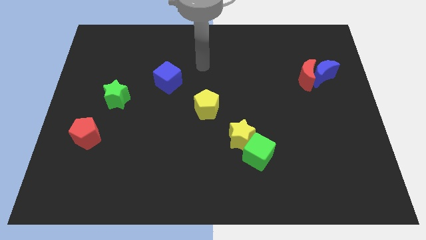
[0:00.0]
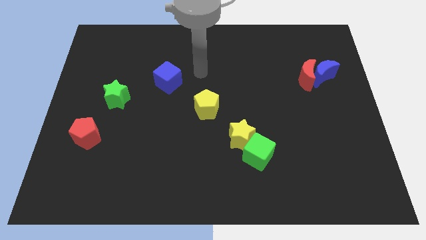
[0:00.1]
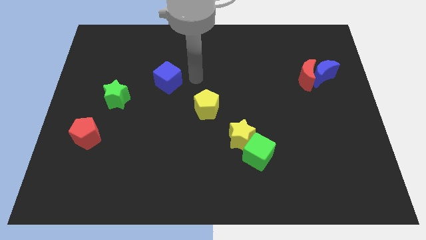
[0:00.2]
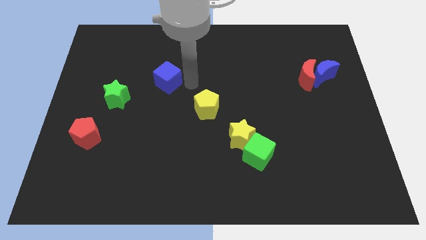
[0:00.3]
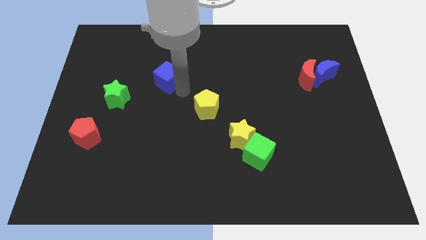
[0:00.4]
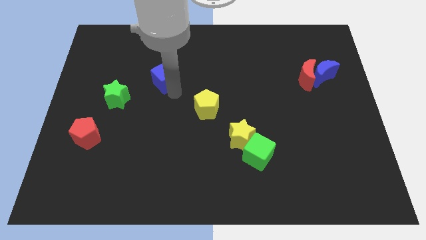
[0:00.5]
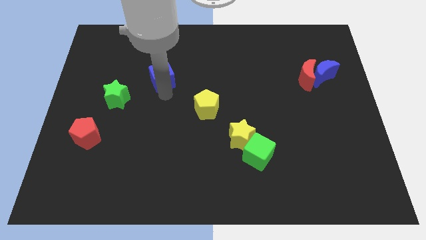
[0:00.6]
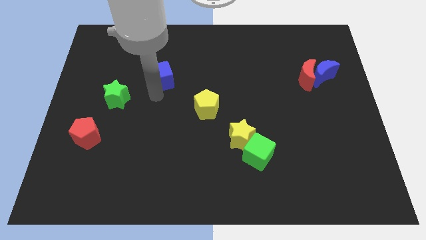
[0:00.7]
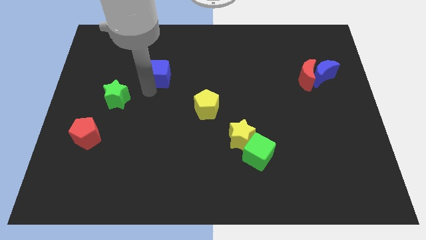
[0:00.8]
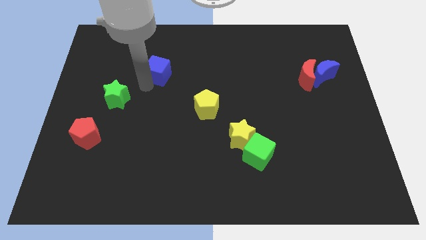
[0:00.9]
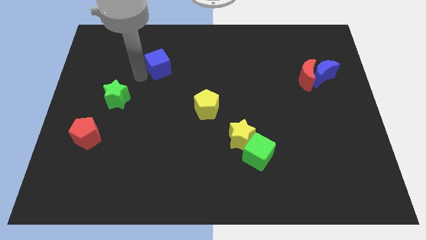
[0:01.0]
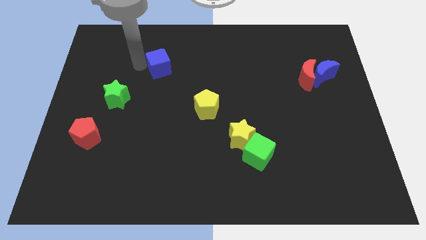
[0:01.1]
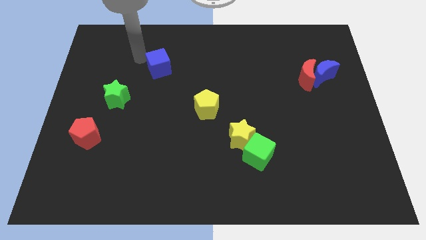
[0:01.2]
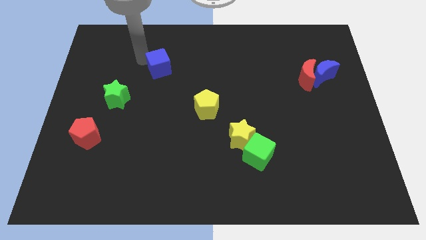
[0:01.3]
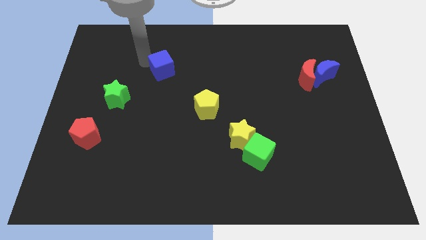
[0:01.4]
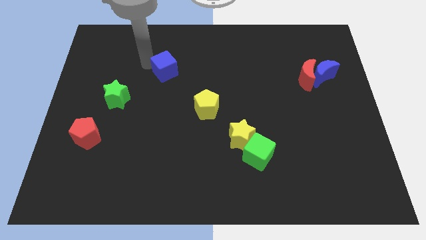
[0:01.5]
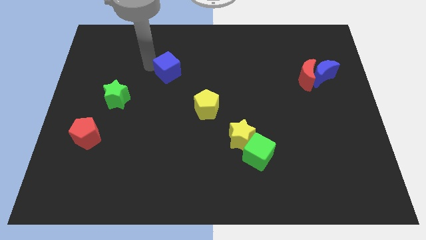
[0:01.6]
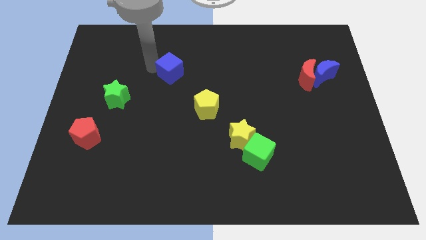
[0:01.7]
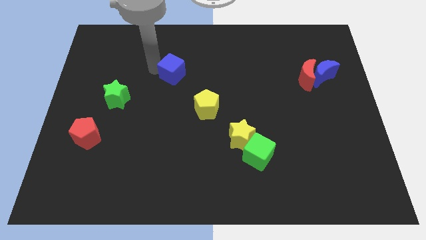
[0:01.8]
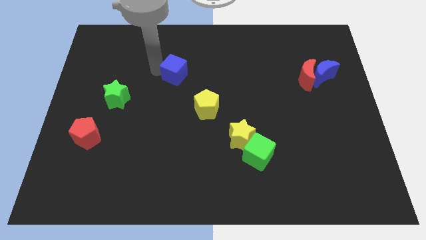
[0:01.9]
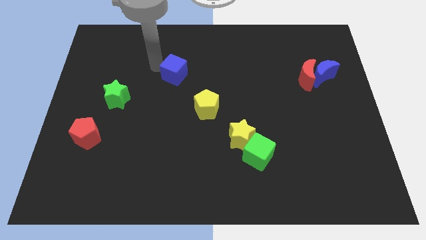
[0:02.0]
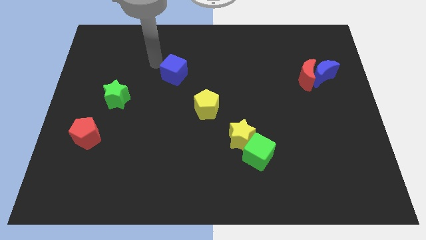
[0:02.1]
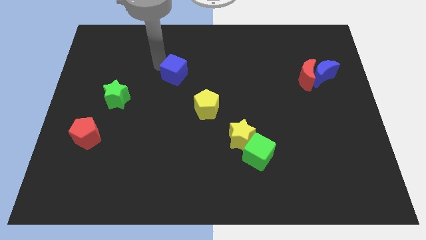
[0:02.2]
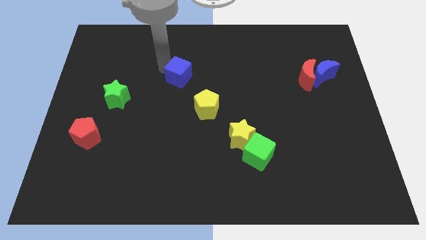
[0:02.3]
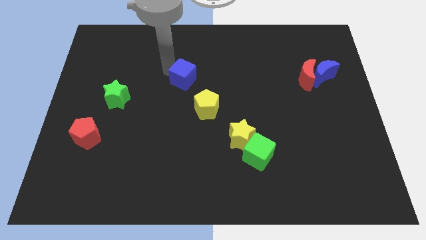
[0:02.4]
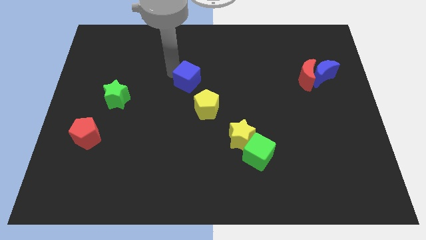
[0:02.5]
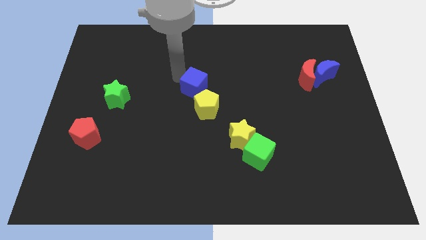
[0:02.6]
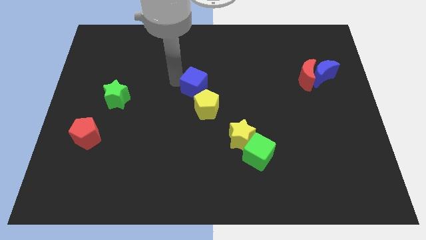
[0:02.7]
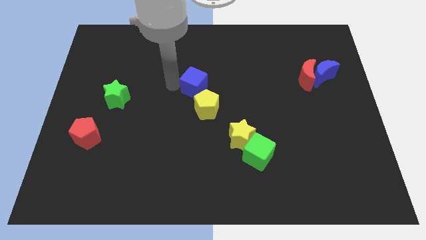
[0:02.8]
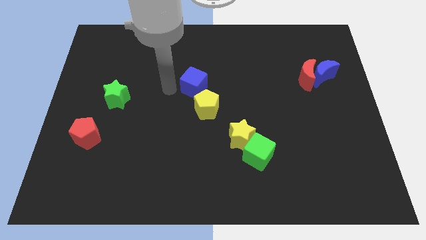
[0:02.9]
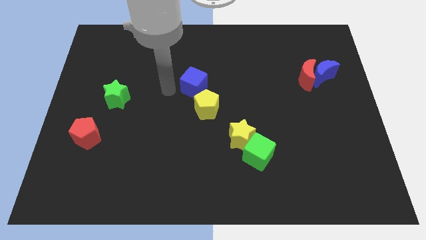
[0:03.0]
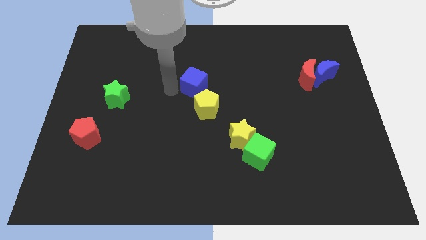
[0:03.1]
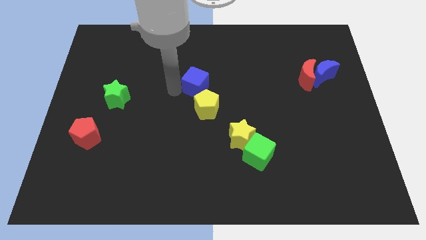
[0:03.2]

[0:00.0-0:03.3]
move the blue cube a little right

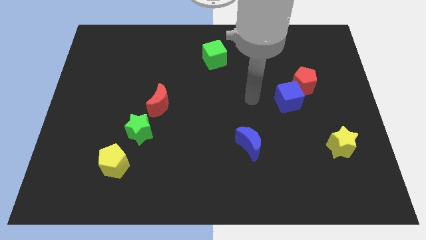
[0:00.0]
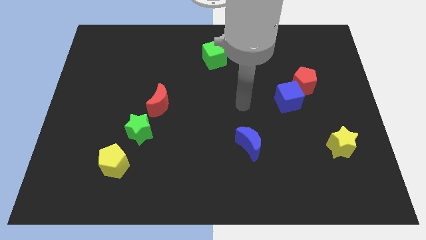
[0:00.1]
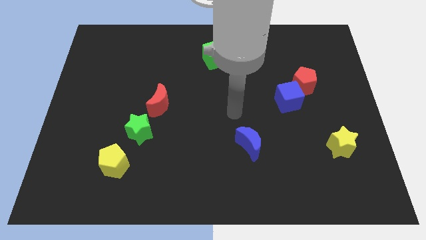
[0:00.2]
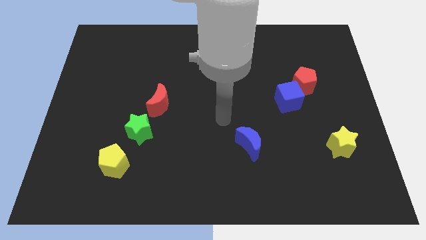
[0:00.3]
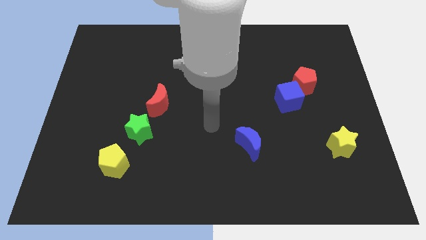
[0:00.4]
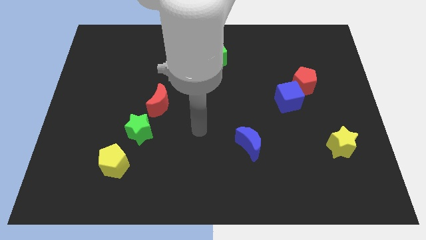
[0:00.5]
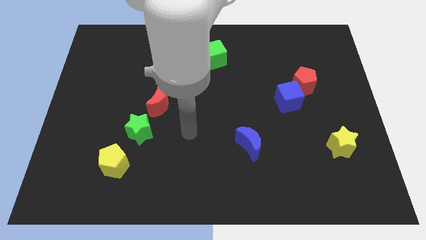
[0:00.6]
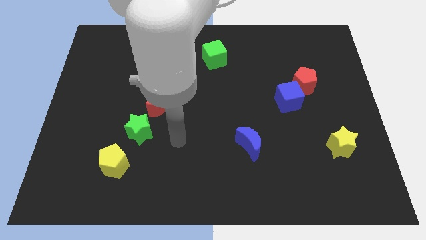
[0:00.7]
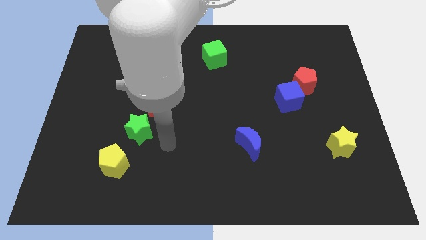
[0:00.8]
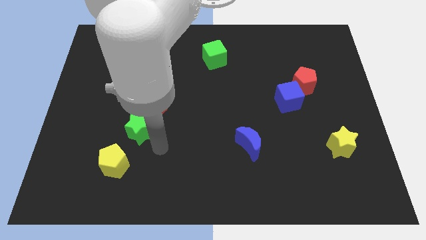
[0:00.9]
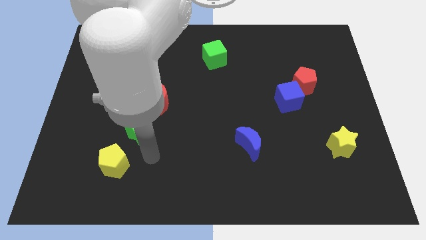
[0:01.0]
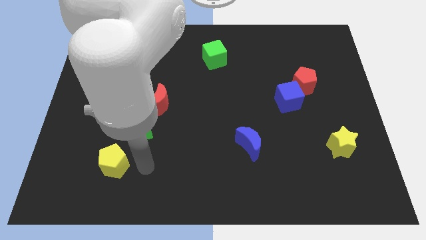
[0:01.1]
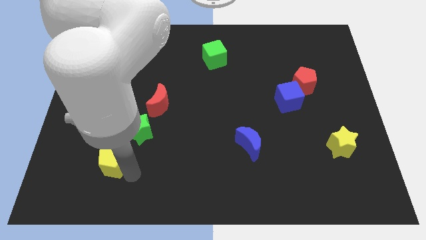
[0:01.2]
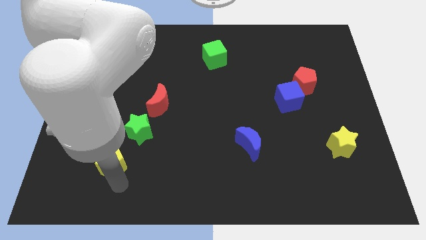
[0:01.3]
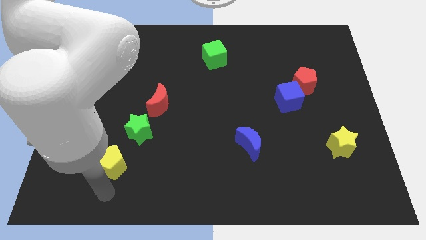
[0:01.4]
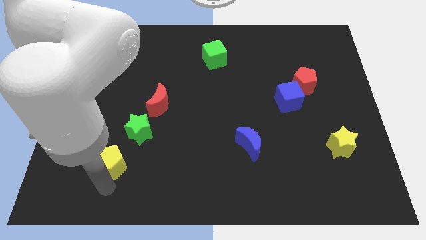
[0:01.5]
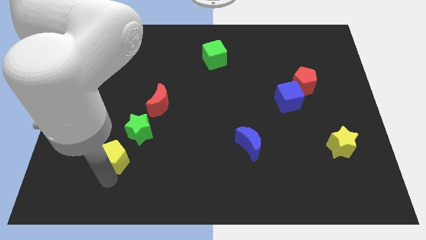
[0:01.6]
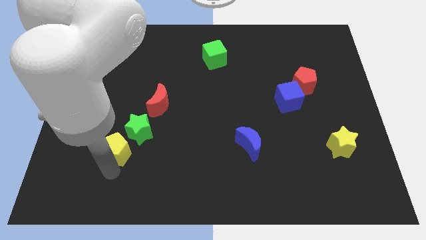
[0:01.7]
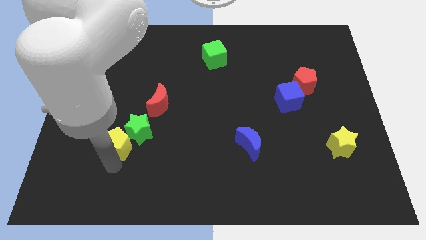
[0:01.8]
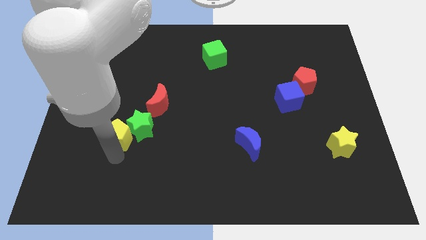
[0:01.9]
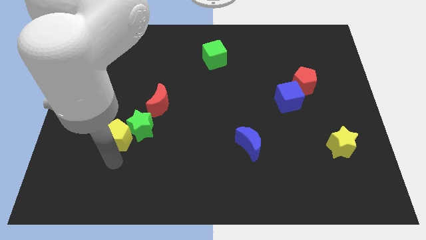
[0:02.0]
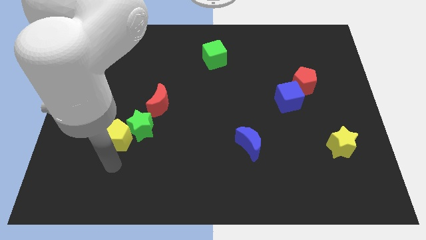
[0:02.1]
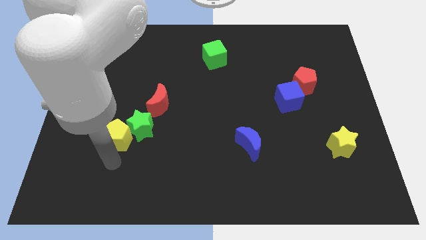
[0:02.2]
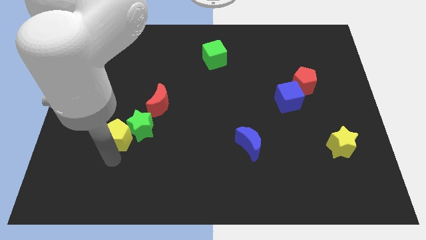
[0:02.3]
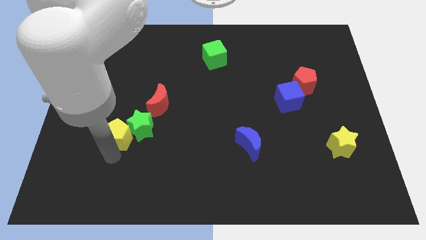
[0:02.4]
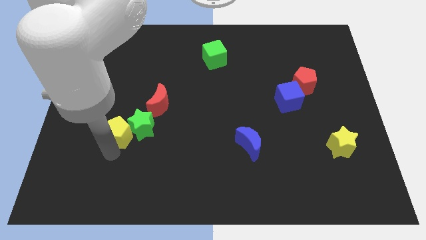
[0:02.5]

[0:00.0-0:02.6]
slide the yellow pentagon up a little

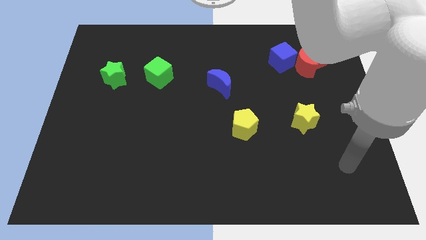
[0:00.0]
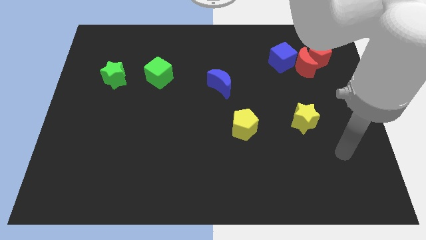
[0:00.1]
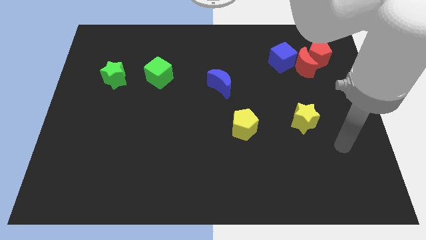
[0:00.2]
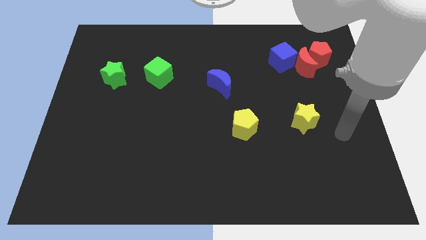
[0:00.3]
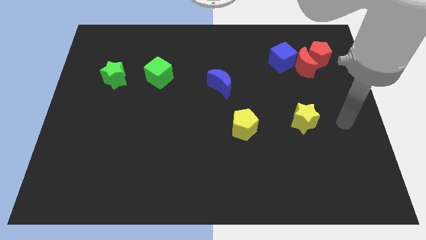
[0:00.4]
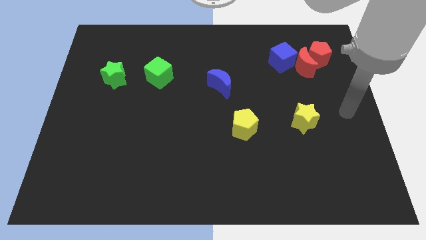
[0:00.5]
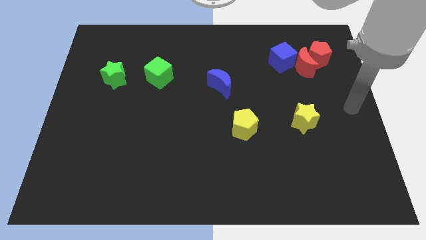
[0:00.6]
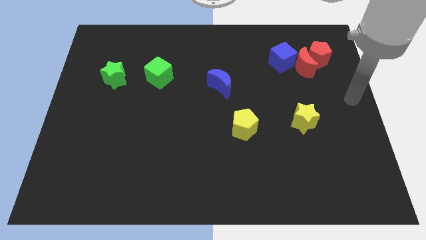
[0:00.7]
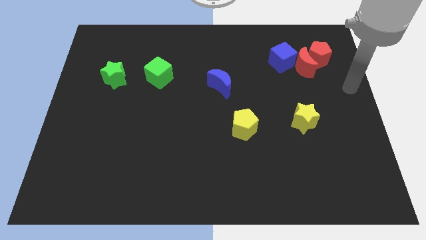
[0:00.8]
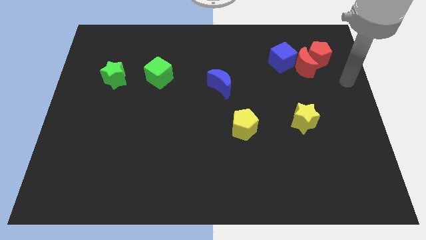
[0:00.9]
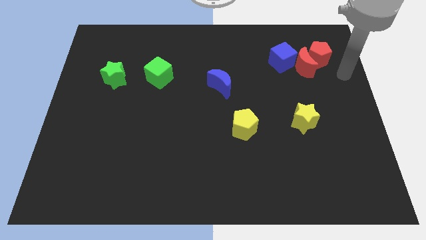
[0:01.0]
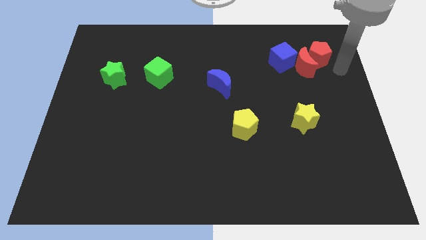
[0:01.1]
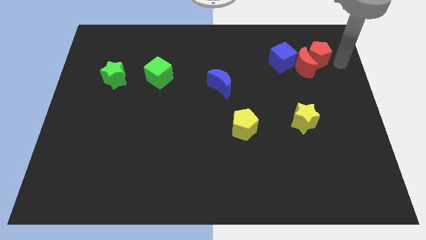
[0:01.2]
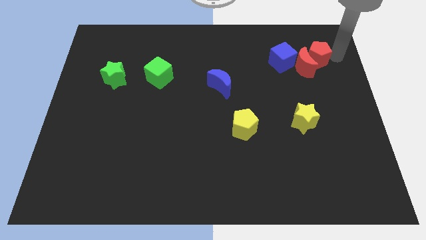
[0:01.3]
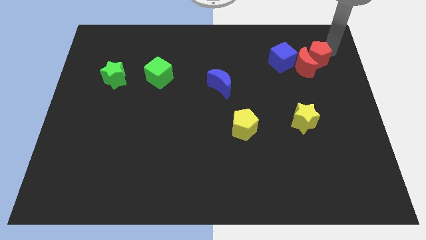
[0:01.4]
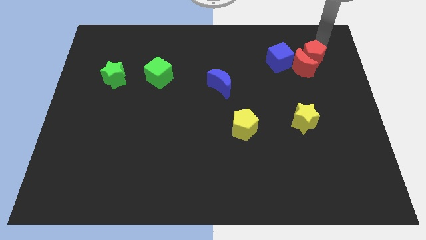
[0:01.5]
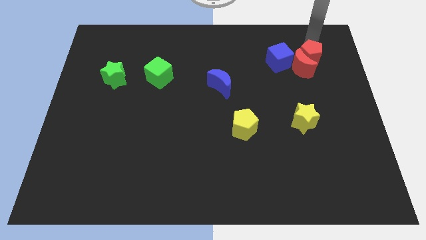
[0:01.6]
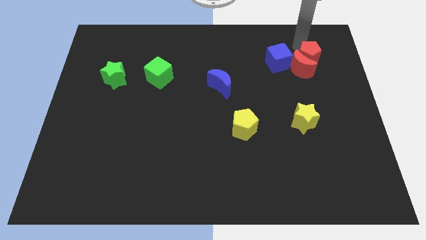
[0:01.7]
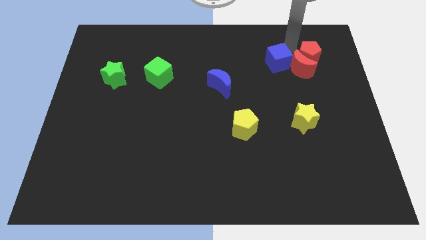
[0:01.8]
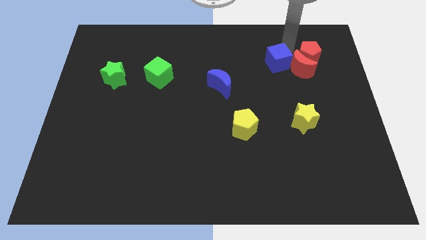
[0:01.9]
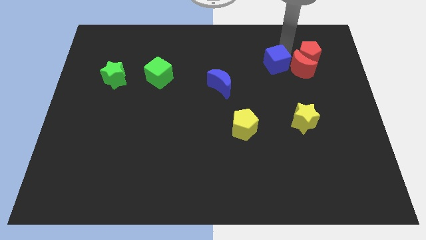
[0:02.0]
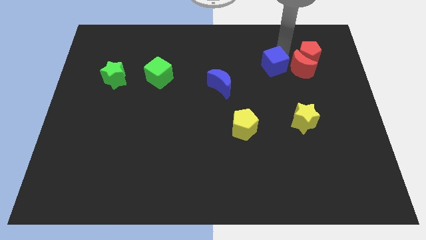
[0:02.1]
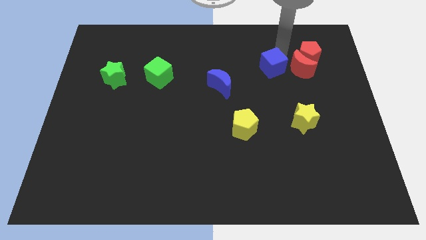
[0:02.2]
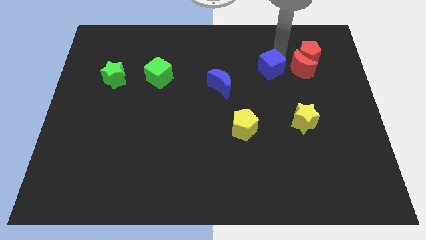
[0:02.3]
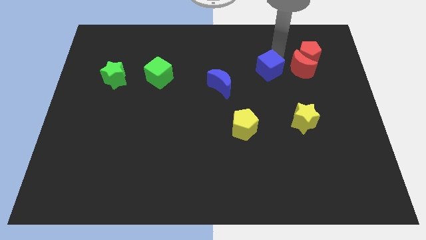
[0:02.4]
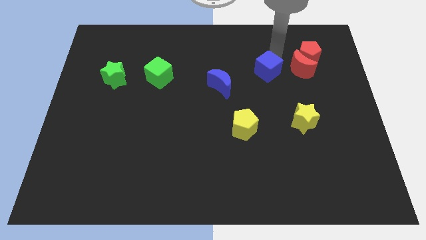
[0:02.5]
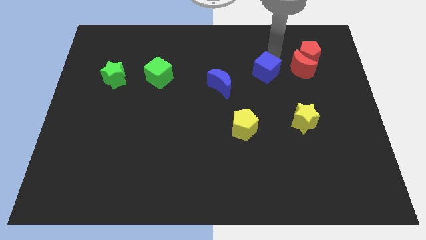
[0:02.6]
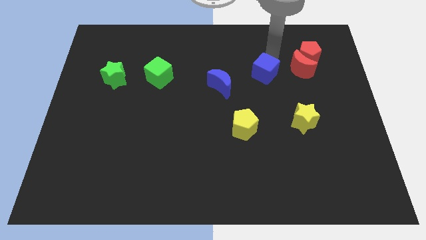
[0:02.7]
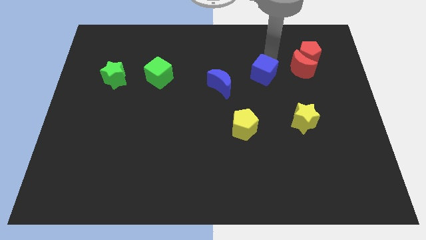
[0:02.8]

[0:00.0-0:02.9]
push the blue cube slightly diagonally down and to the left
